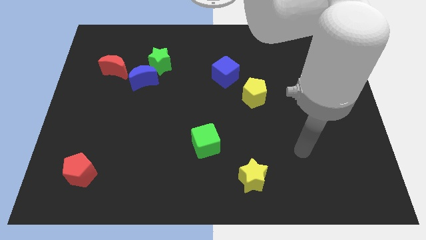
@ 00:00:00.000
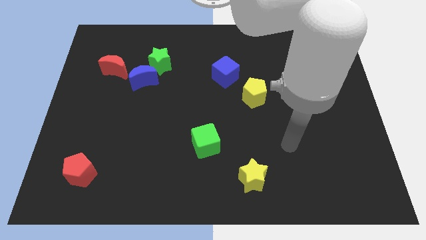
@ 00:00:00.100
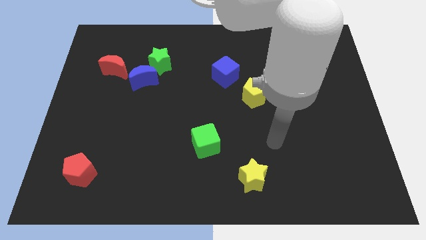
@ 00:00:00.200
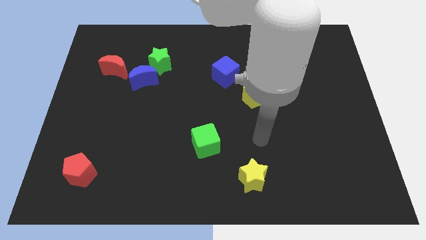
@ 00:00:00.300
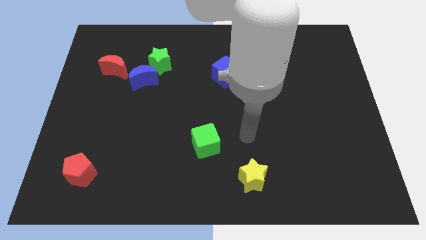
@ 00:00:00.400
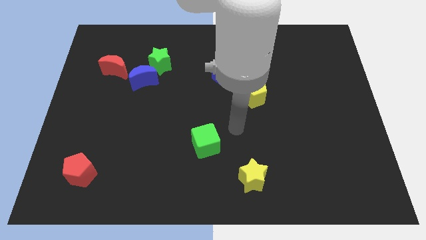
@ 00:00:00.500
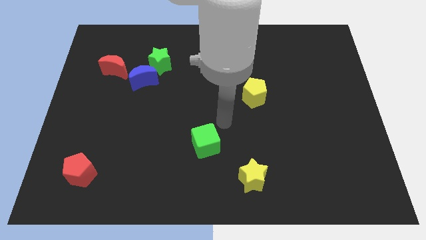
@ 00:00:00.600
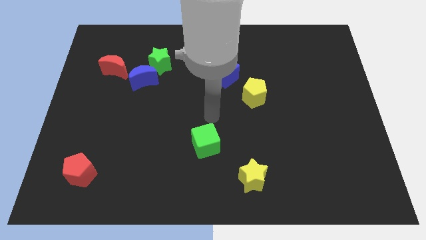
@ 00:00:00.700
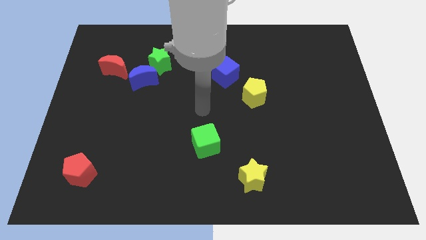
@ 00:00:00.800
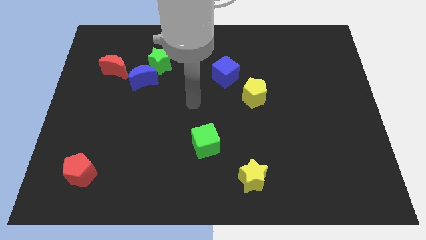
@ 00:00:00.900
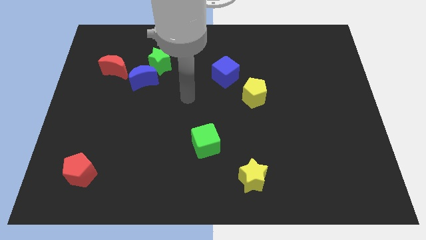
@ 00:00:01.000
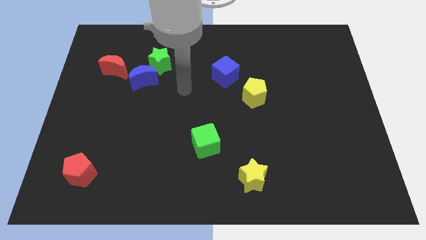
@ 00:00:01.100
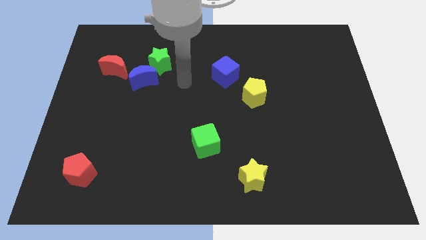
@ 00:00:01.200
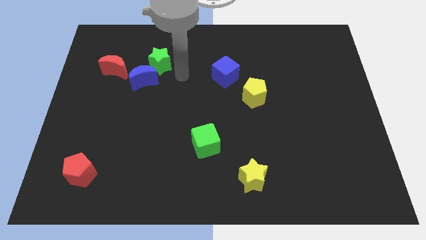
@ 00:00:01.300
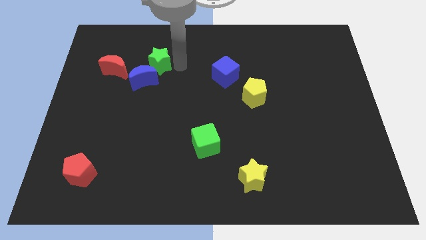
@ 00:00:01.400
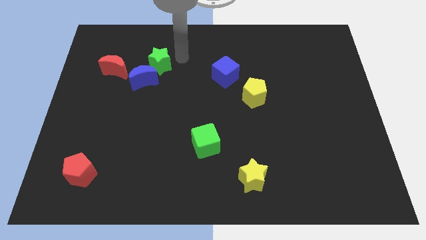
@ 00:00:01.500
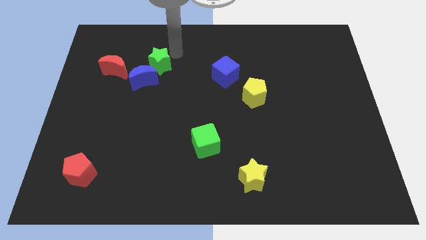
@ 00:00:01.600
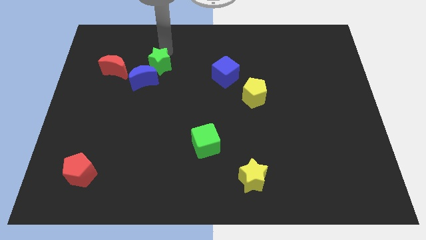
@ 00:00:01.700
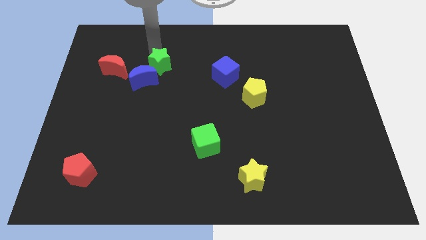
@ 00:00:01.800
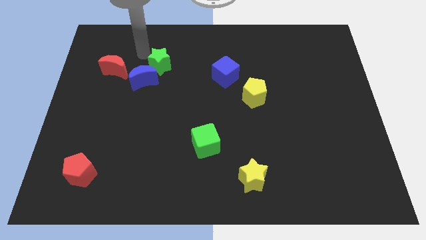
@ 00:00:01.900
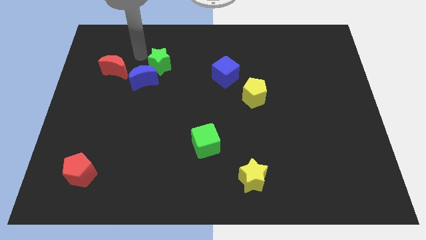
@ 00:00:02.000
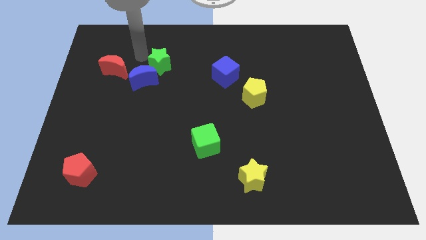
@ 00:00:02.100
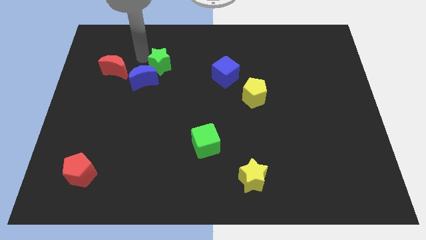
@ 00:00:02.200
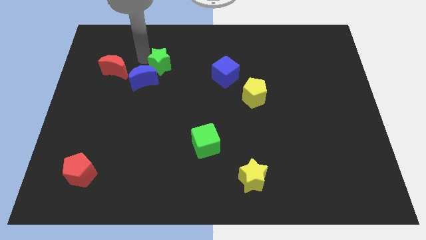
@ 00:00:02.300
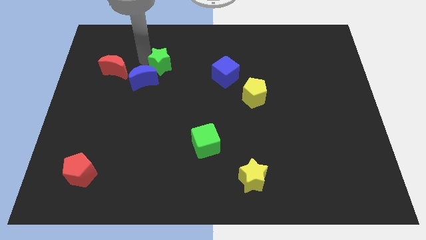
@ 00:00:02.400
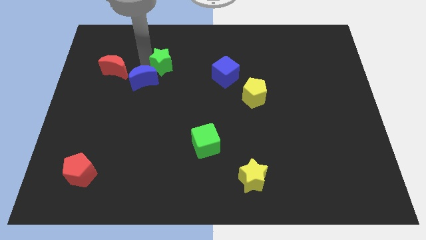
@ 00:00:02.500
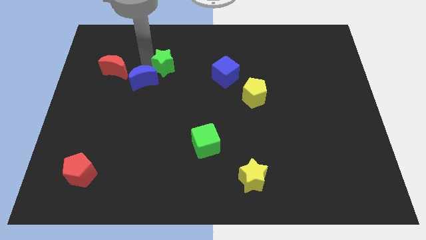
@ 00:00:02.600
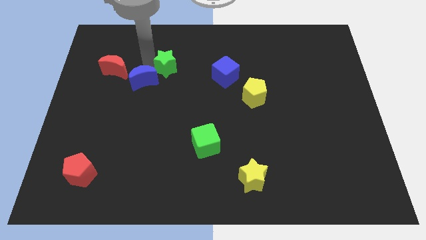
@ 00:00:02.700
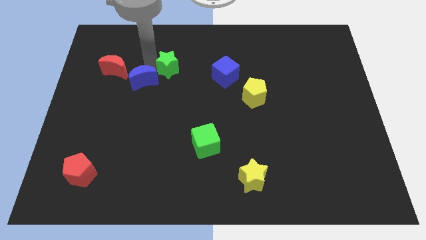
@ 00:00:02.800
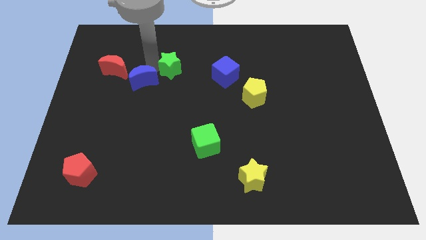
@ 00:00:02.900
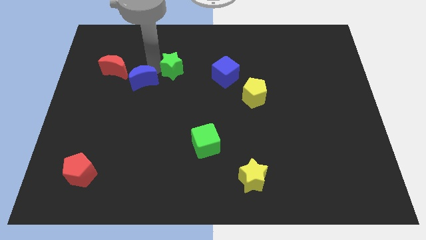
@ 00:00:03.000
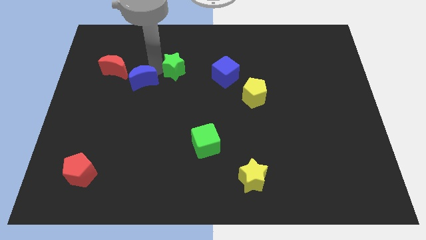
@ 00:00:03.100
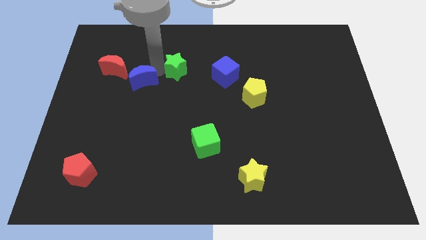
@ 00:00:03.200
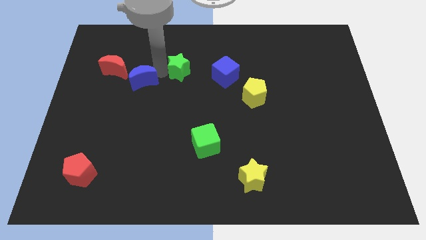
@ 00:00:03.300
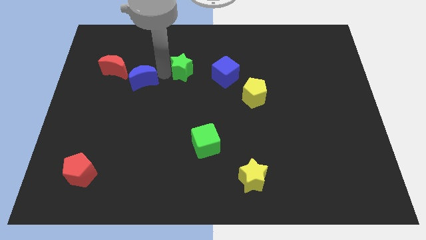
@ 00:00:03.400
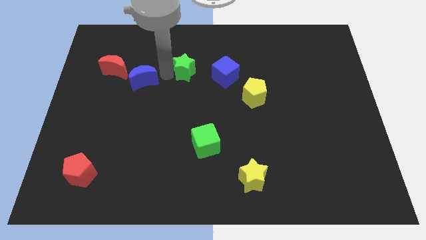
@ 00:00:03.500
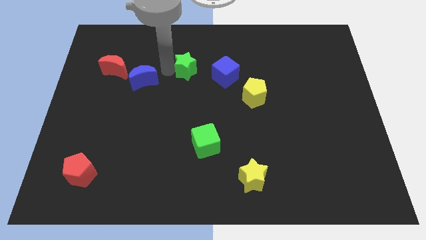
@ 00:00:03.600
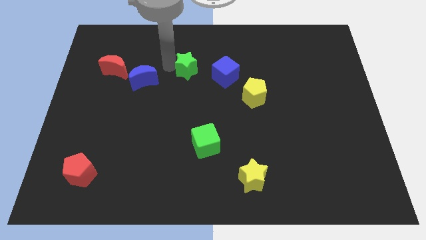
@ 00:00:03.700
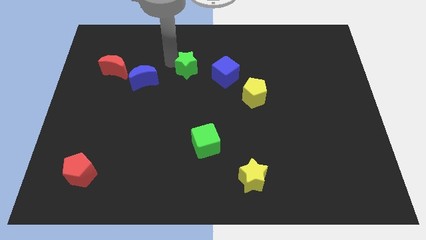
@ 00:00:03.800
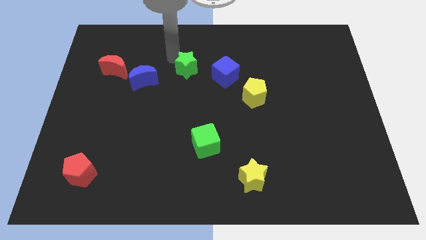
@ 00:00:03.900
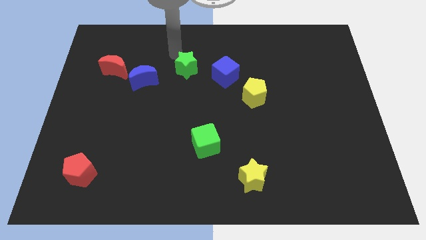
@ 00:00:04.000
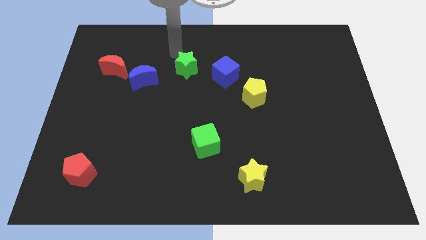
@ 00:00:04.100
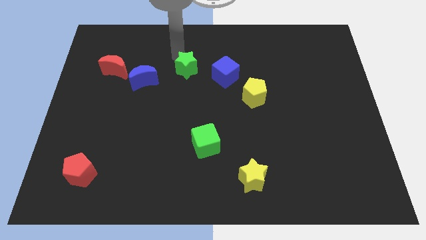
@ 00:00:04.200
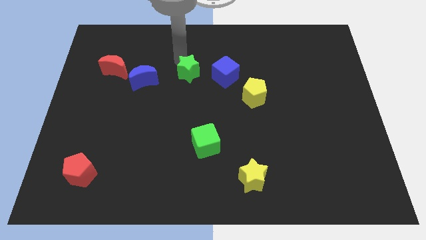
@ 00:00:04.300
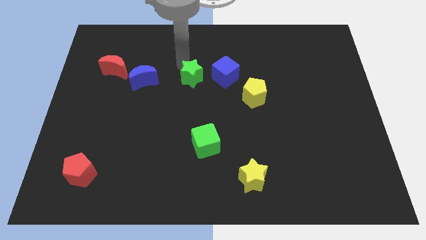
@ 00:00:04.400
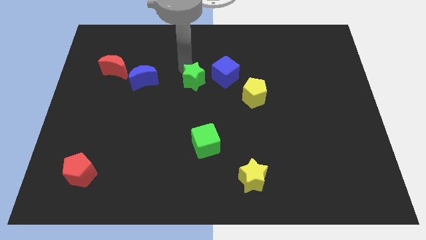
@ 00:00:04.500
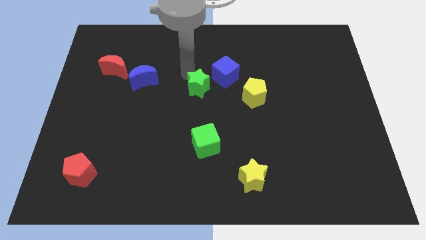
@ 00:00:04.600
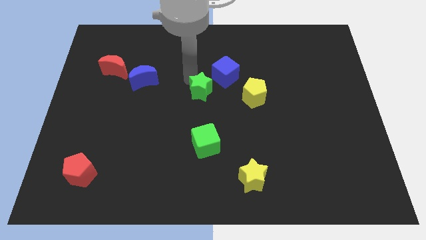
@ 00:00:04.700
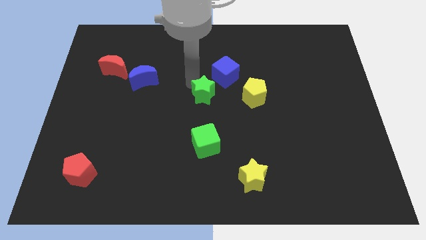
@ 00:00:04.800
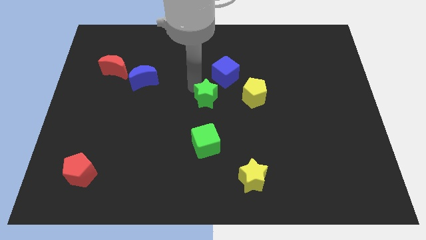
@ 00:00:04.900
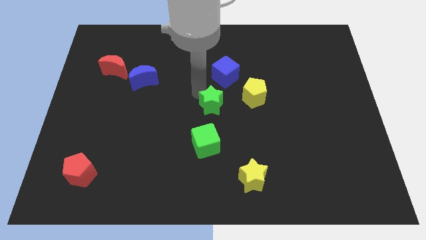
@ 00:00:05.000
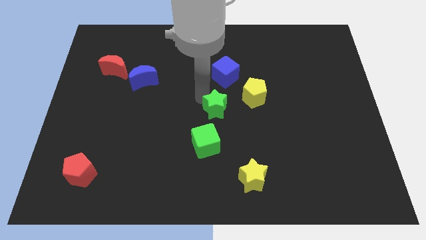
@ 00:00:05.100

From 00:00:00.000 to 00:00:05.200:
slide the green star to the bottom left side of the yellow pentagon

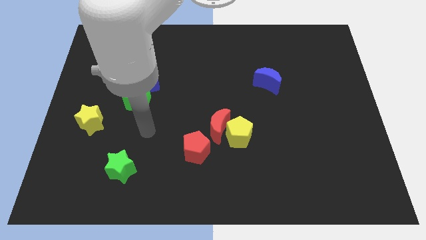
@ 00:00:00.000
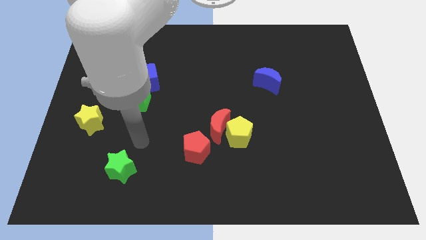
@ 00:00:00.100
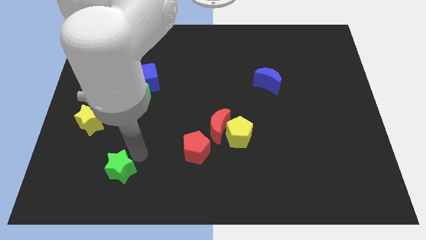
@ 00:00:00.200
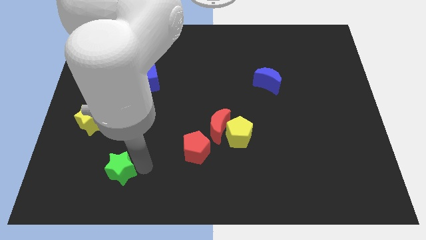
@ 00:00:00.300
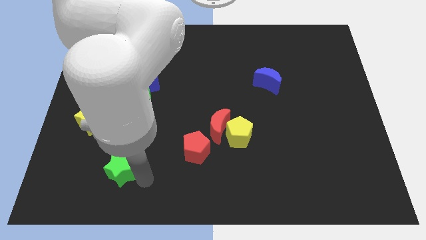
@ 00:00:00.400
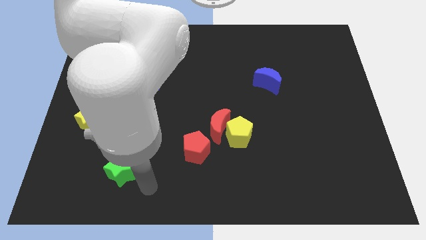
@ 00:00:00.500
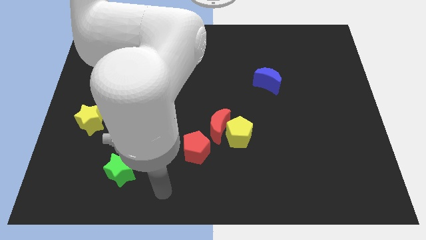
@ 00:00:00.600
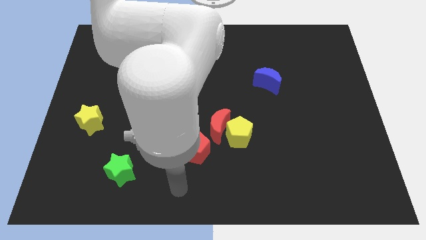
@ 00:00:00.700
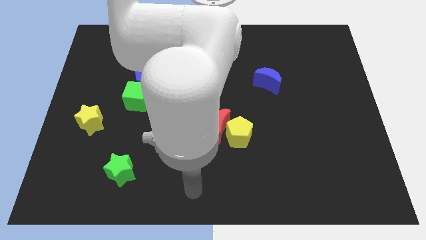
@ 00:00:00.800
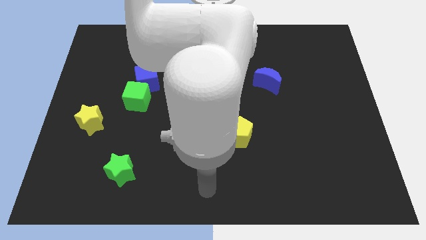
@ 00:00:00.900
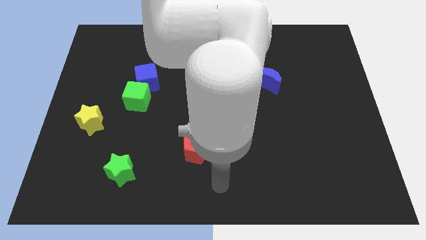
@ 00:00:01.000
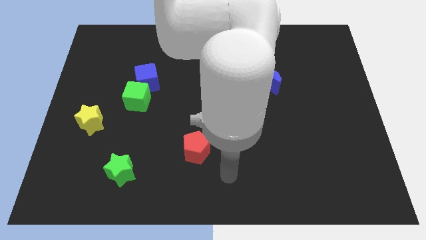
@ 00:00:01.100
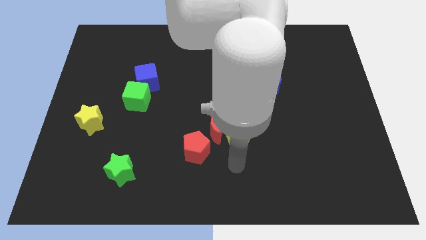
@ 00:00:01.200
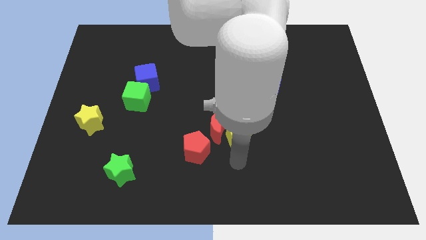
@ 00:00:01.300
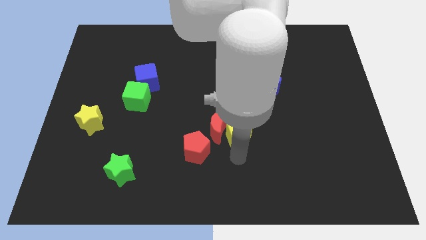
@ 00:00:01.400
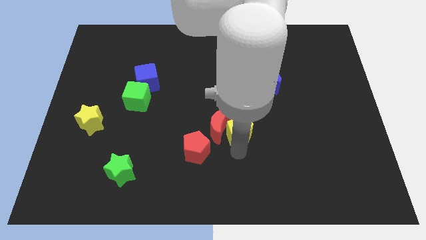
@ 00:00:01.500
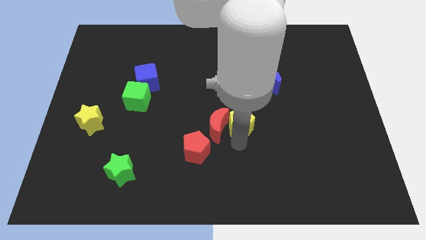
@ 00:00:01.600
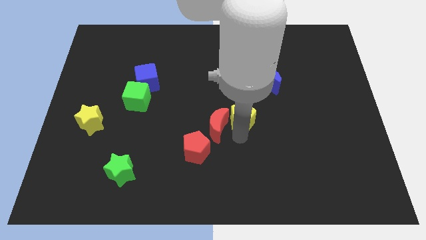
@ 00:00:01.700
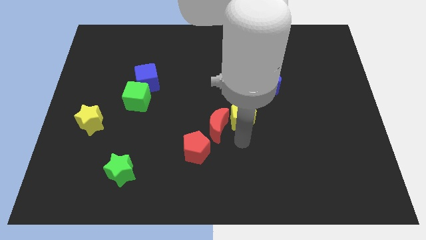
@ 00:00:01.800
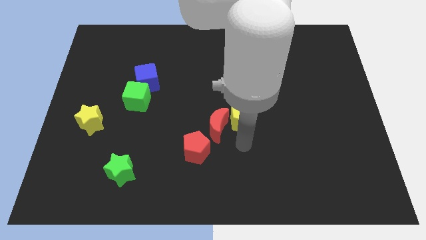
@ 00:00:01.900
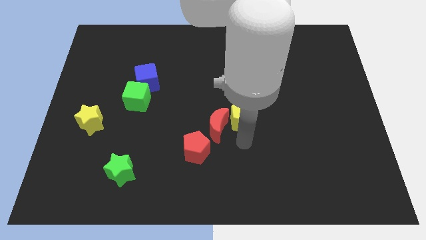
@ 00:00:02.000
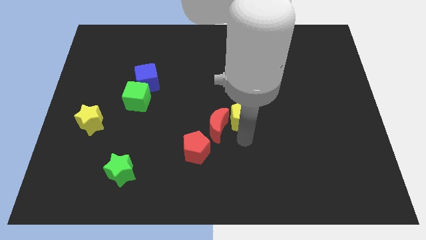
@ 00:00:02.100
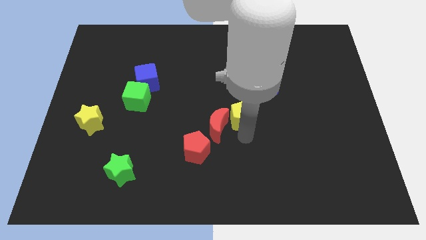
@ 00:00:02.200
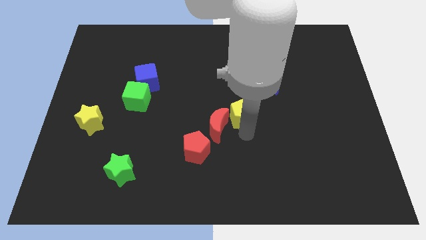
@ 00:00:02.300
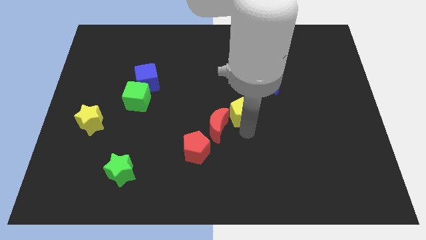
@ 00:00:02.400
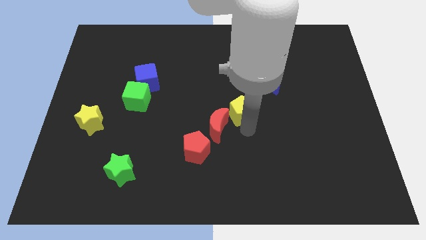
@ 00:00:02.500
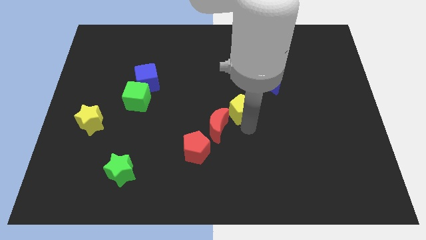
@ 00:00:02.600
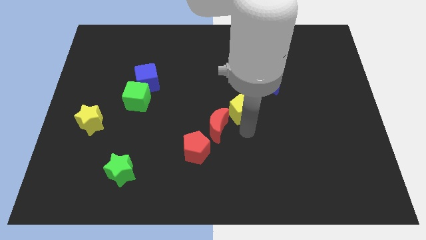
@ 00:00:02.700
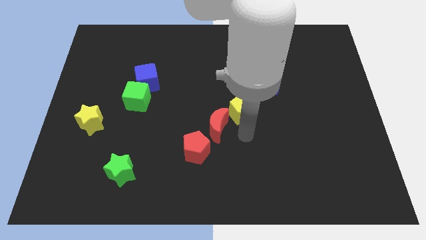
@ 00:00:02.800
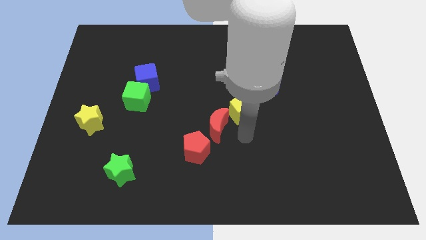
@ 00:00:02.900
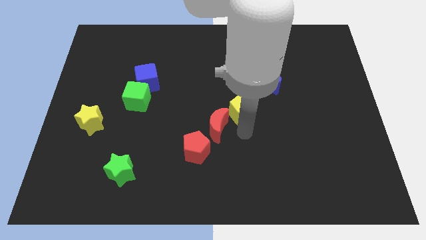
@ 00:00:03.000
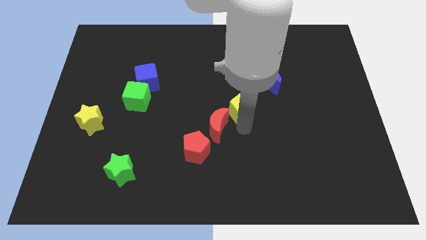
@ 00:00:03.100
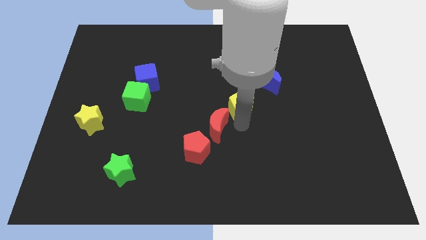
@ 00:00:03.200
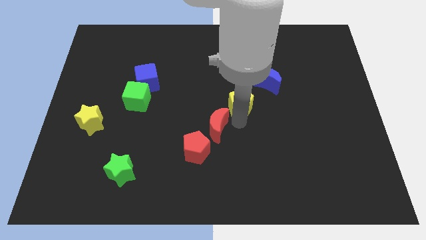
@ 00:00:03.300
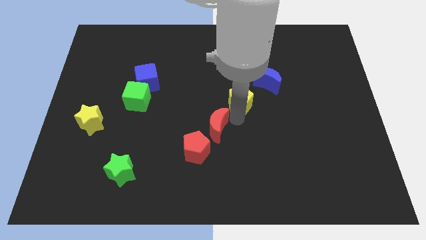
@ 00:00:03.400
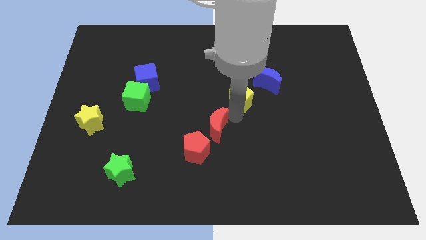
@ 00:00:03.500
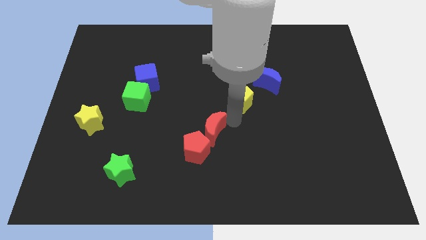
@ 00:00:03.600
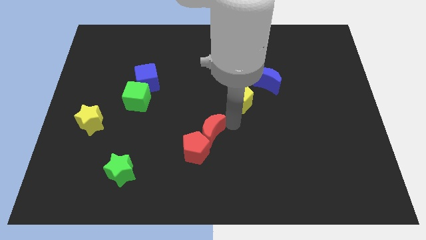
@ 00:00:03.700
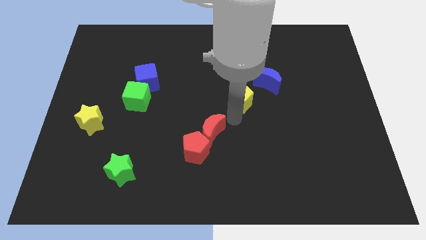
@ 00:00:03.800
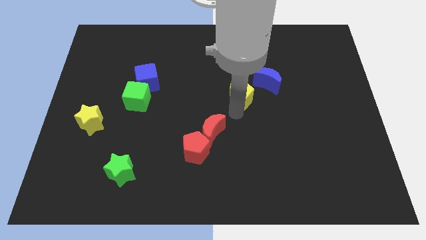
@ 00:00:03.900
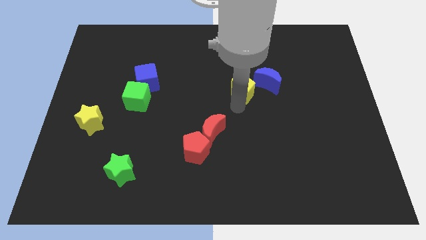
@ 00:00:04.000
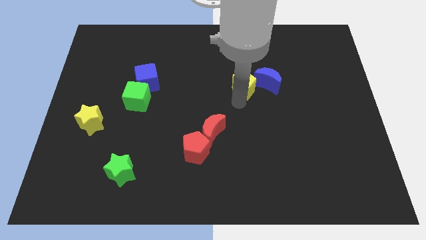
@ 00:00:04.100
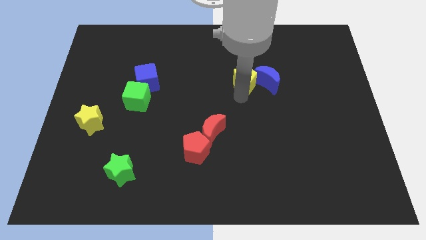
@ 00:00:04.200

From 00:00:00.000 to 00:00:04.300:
put the yellow pentagon to the top left of the blue moon
